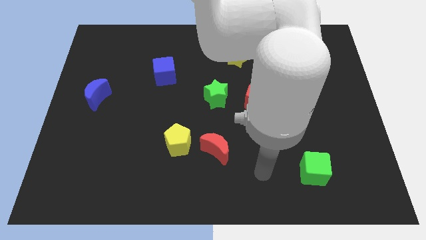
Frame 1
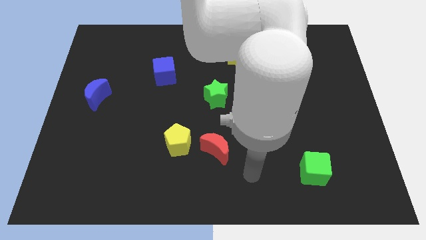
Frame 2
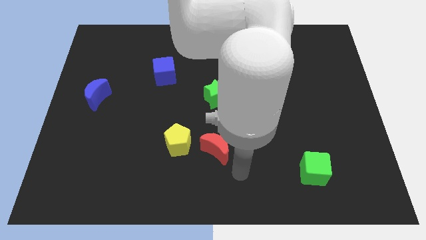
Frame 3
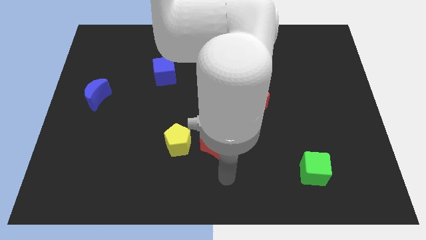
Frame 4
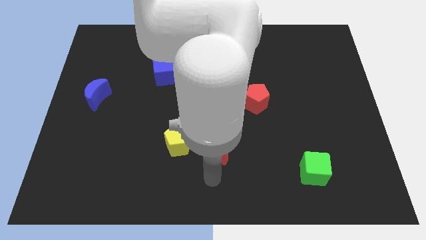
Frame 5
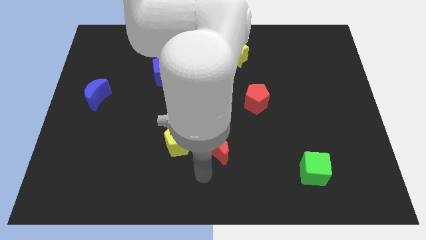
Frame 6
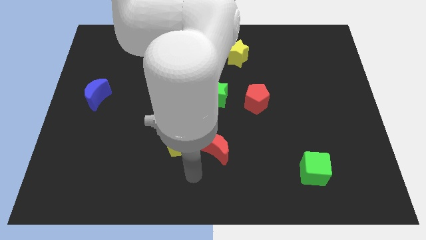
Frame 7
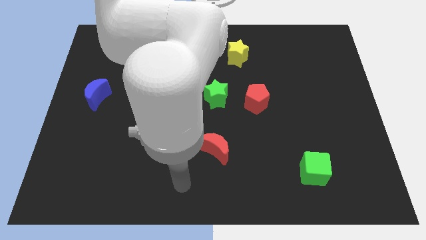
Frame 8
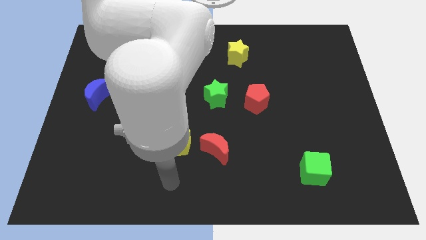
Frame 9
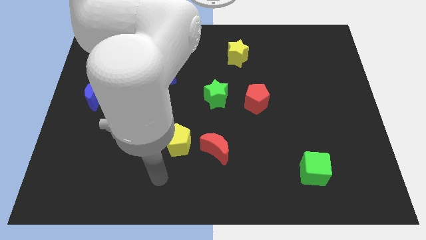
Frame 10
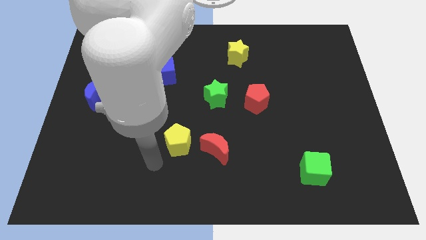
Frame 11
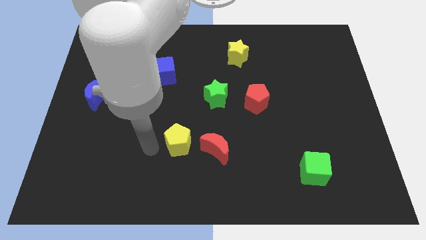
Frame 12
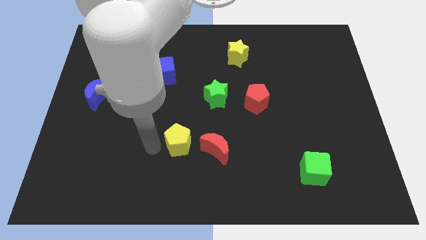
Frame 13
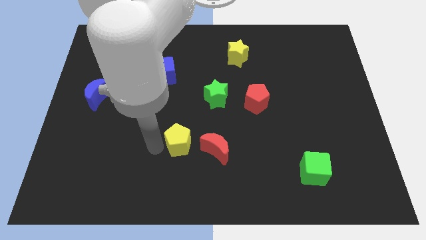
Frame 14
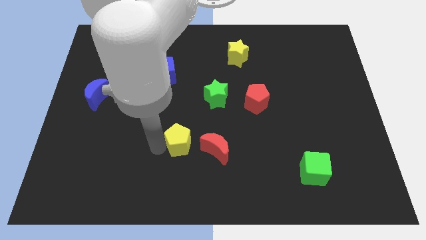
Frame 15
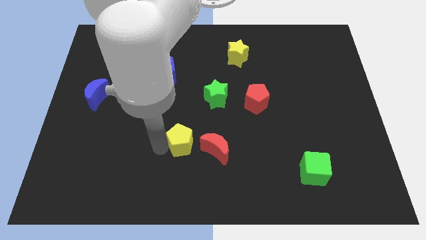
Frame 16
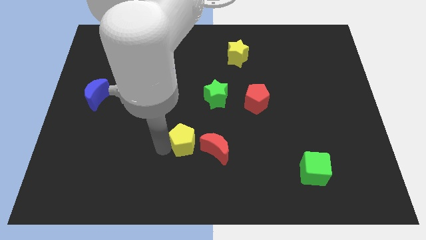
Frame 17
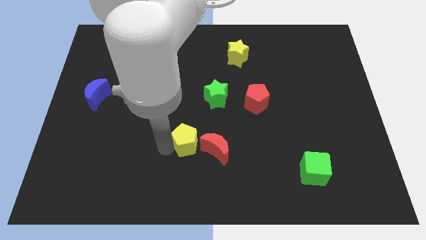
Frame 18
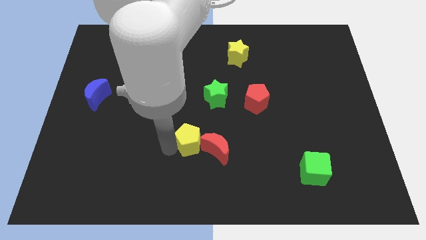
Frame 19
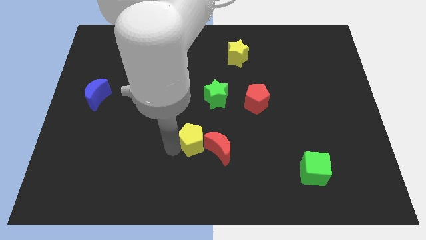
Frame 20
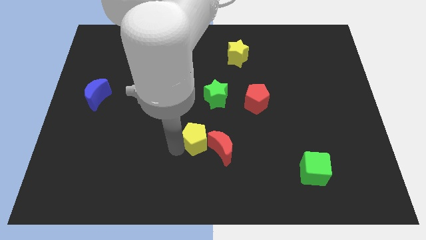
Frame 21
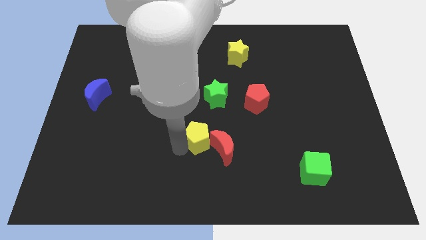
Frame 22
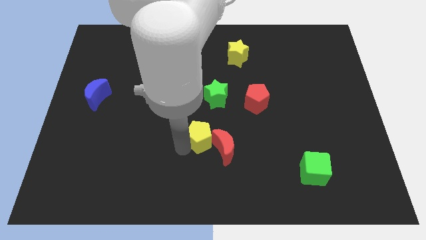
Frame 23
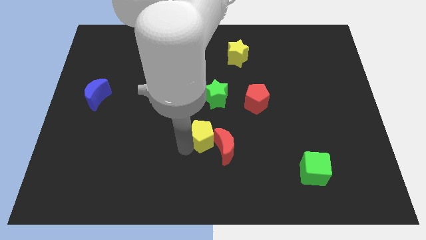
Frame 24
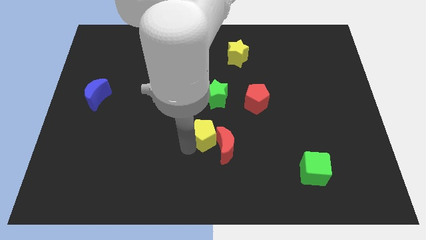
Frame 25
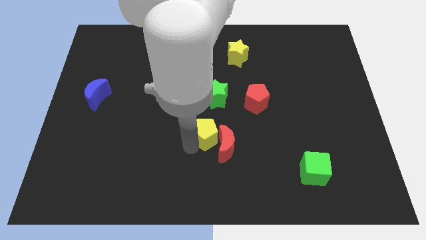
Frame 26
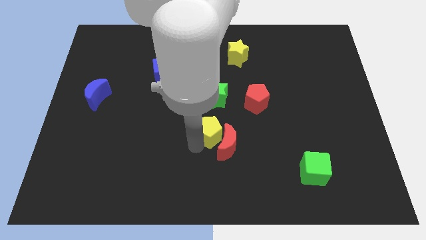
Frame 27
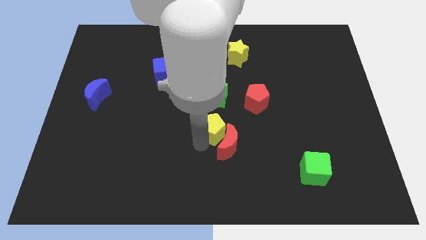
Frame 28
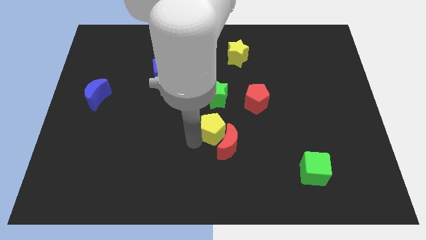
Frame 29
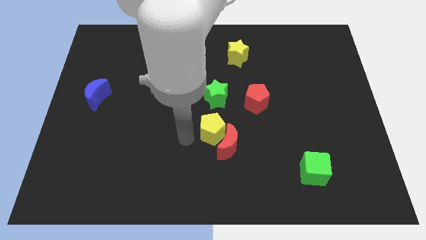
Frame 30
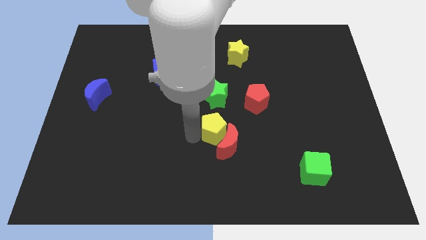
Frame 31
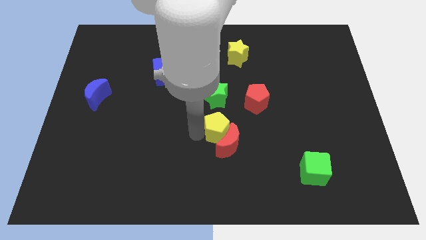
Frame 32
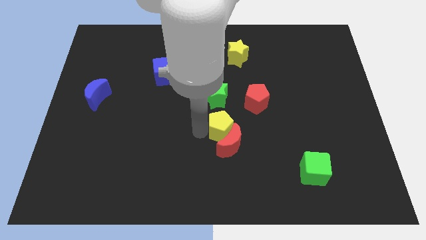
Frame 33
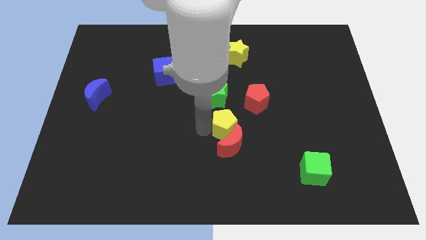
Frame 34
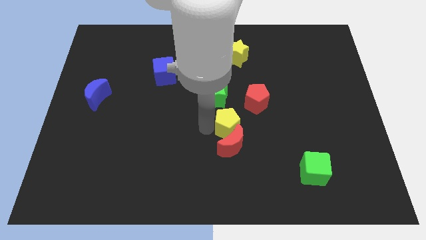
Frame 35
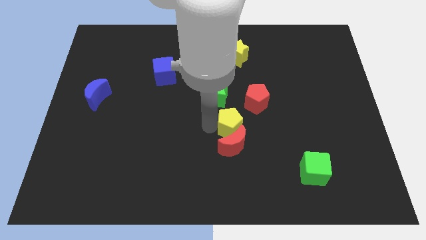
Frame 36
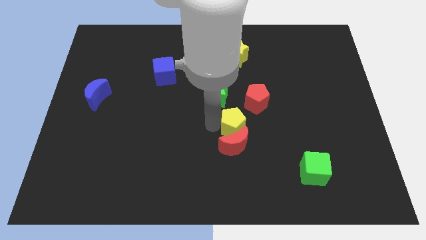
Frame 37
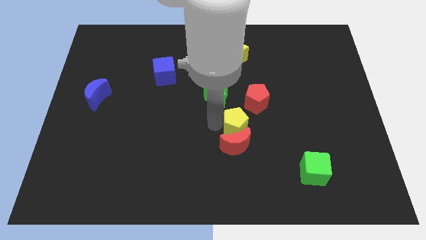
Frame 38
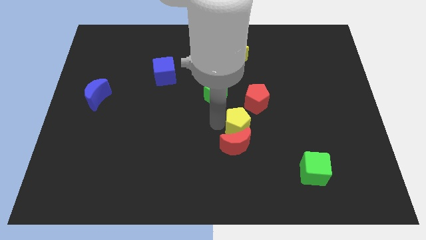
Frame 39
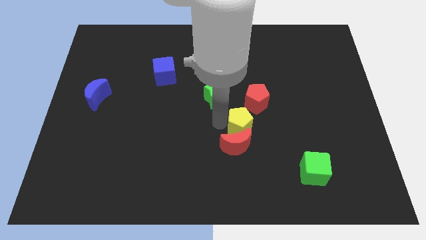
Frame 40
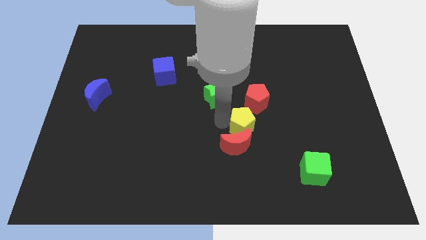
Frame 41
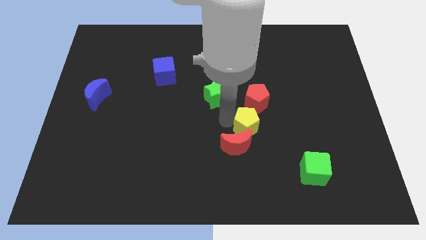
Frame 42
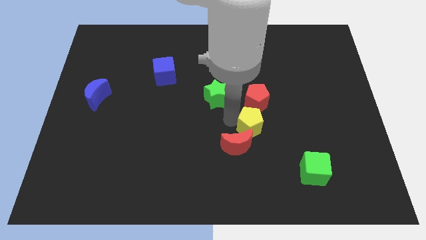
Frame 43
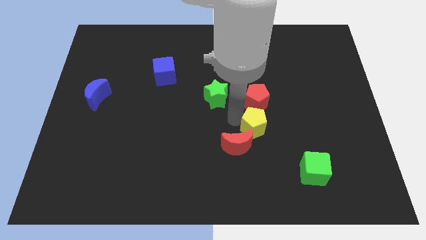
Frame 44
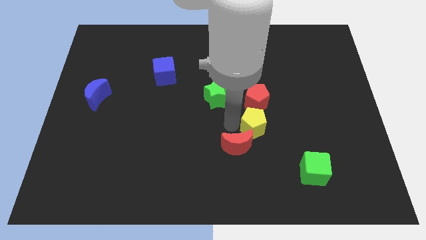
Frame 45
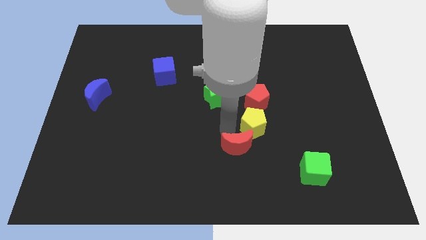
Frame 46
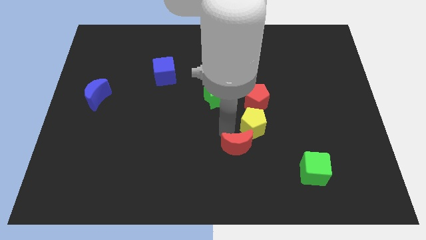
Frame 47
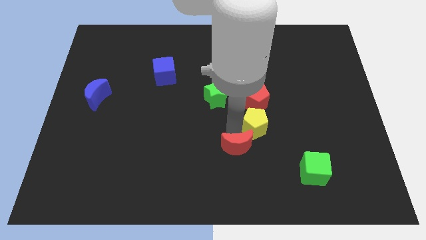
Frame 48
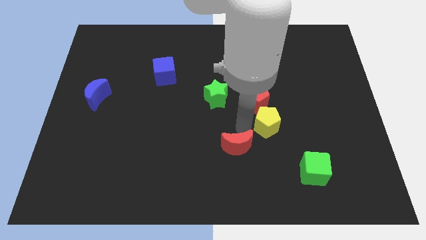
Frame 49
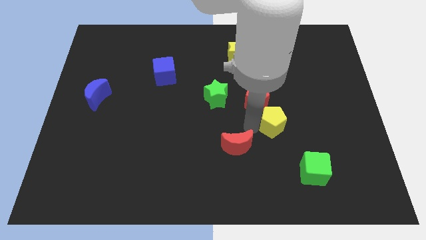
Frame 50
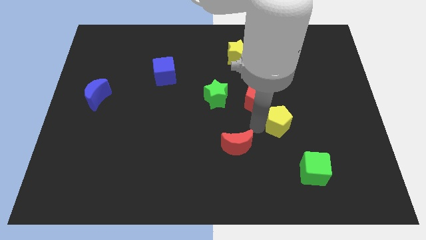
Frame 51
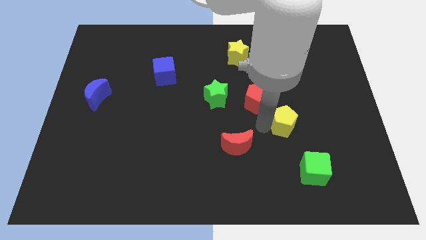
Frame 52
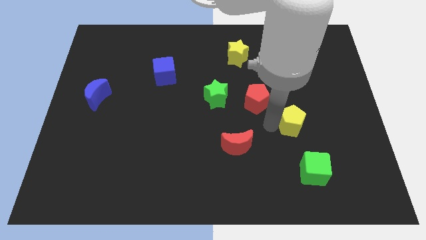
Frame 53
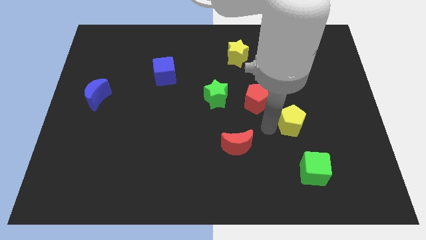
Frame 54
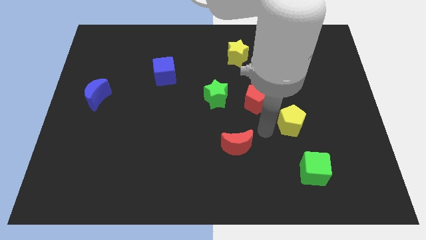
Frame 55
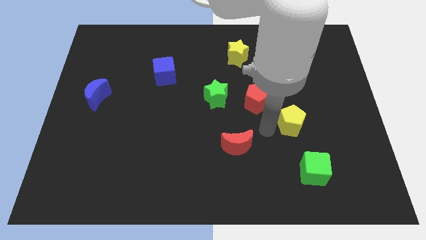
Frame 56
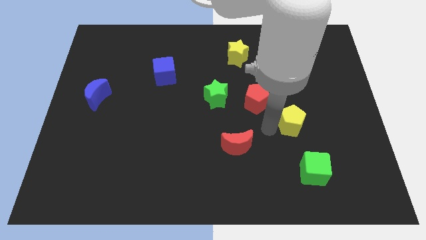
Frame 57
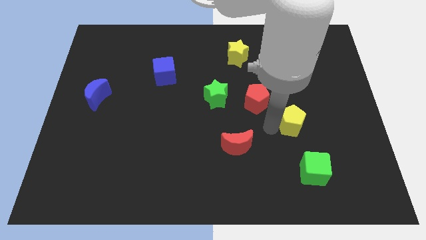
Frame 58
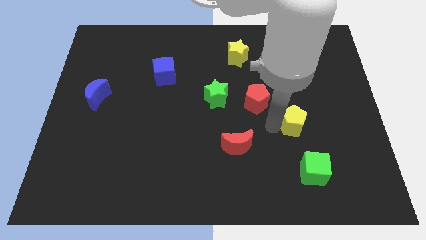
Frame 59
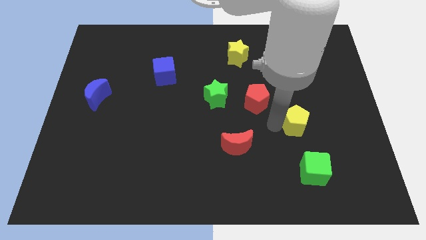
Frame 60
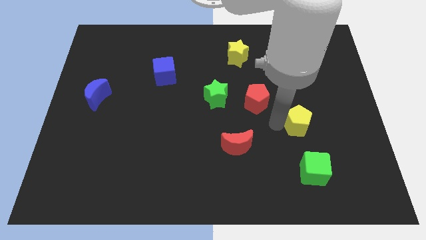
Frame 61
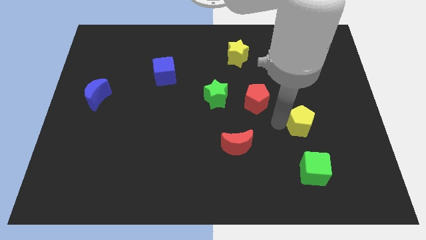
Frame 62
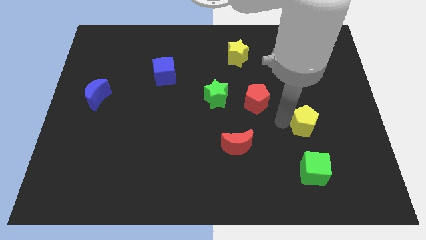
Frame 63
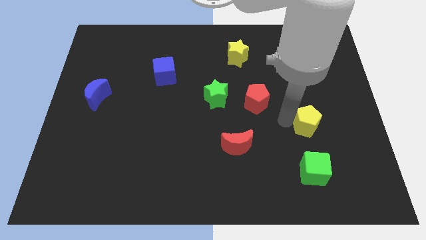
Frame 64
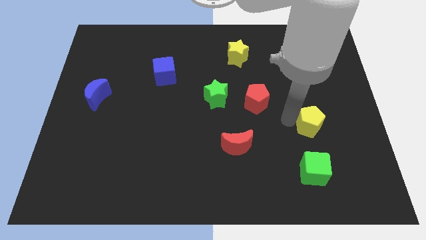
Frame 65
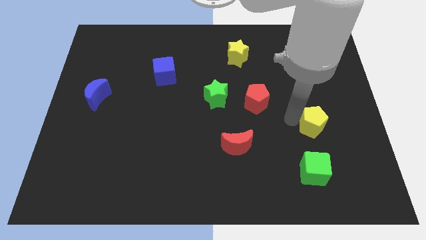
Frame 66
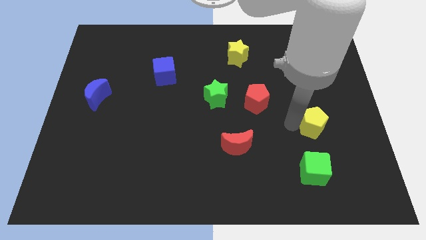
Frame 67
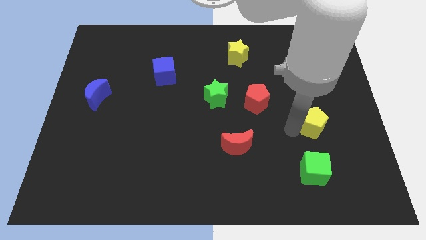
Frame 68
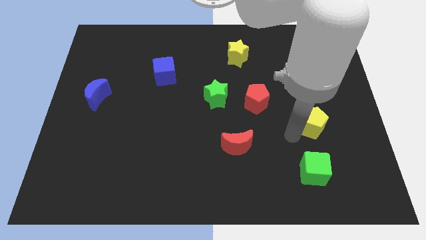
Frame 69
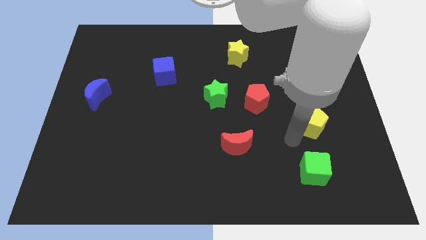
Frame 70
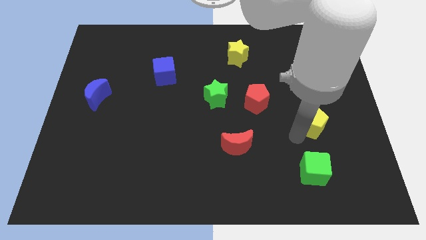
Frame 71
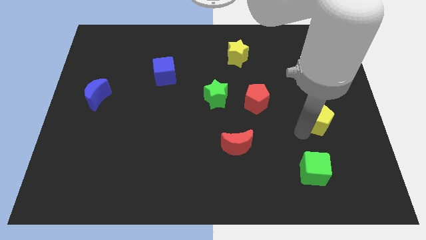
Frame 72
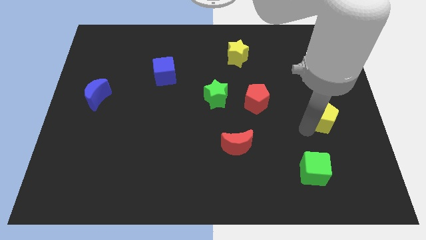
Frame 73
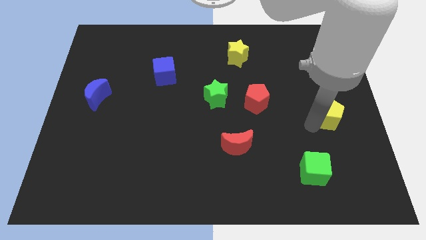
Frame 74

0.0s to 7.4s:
push the yellow pentagon to the right side
